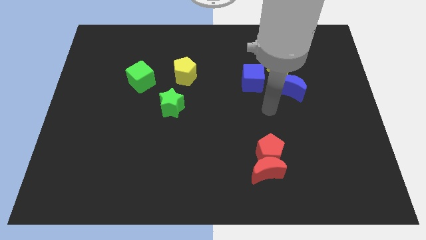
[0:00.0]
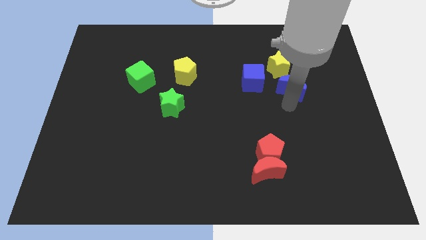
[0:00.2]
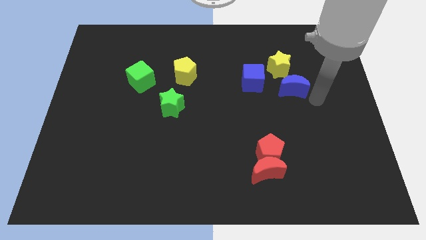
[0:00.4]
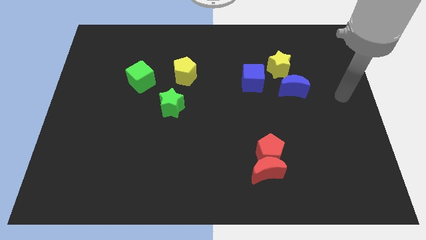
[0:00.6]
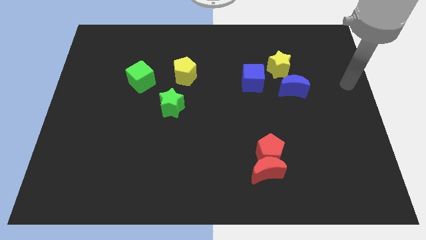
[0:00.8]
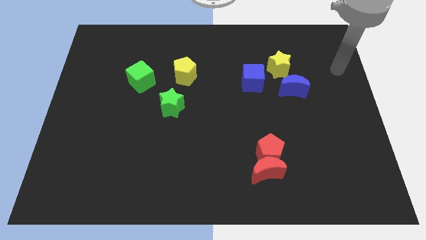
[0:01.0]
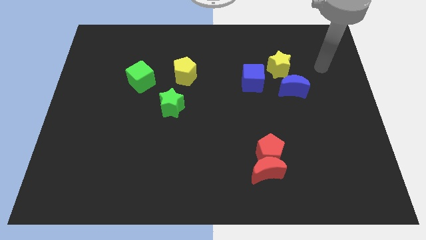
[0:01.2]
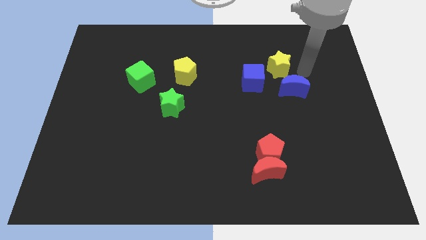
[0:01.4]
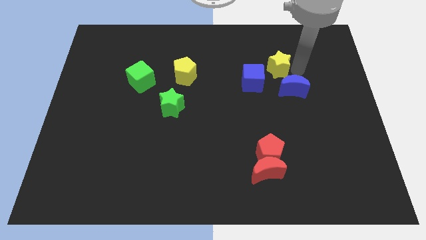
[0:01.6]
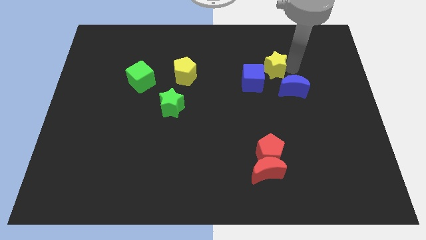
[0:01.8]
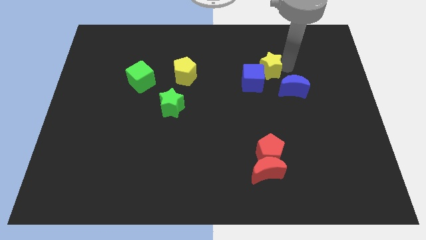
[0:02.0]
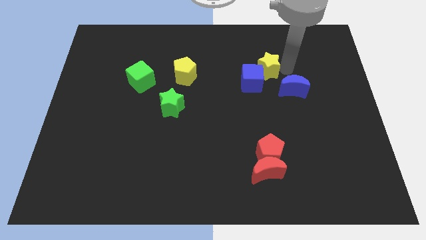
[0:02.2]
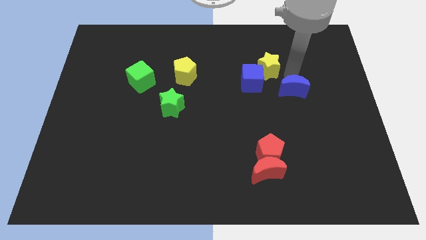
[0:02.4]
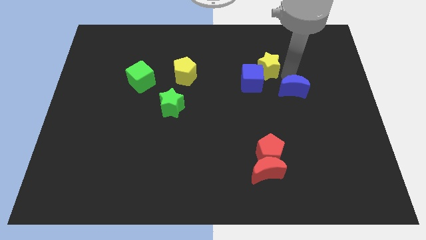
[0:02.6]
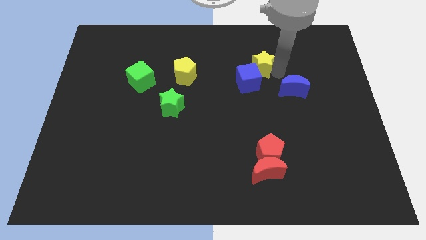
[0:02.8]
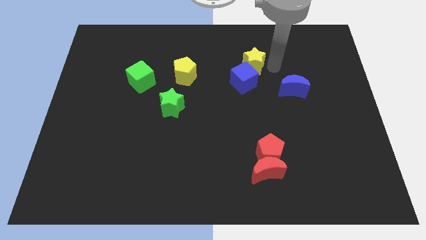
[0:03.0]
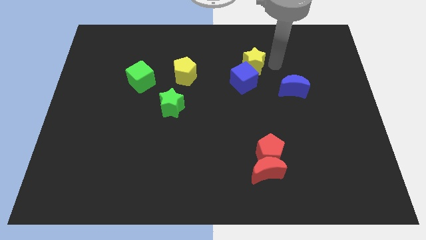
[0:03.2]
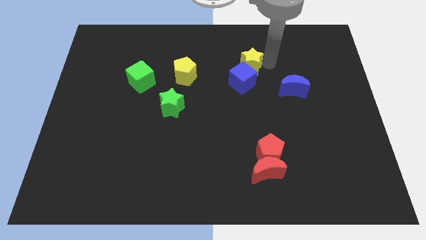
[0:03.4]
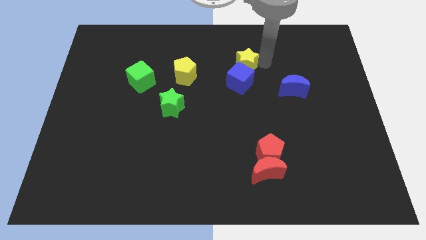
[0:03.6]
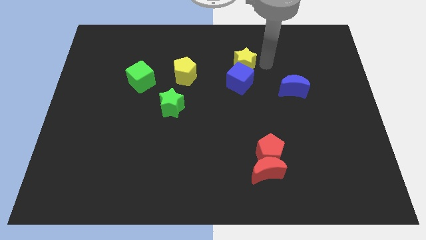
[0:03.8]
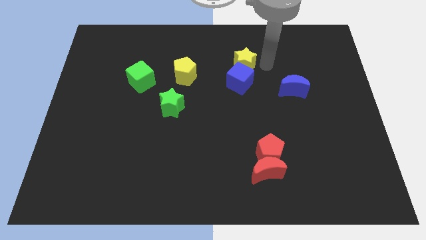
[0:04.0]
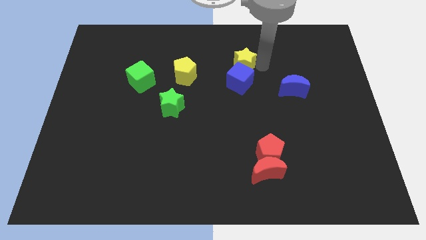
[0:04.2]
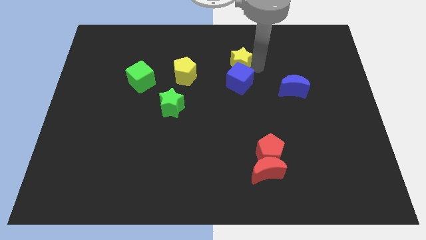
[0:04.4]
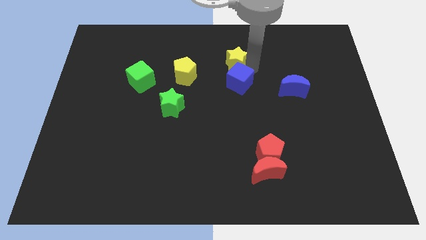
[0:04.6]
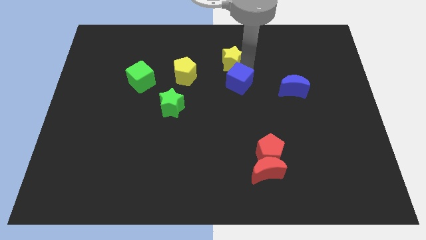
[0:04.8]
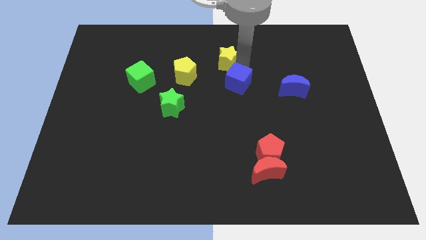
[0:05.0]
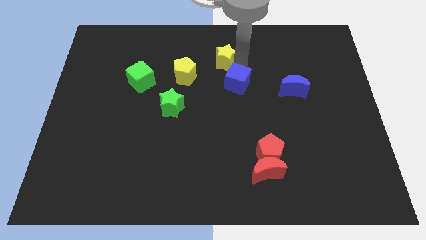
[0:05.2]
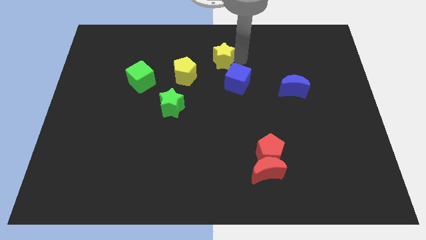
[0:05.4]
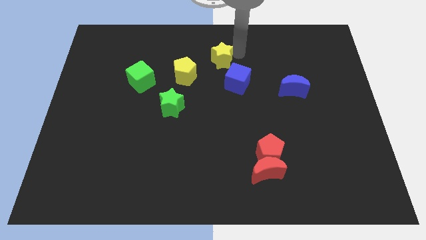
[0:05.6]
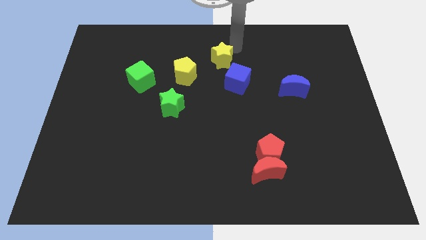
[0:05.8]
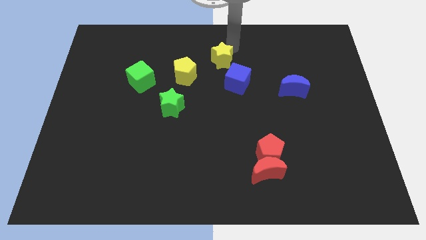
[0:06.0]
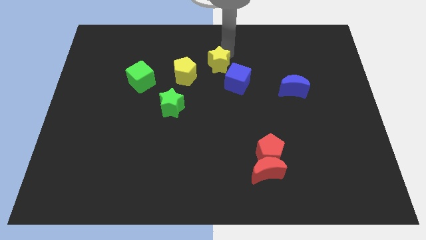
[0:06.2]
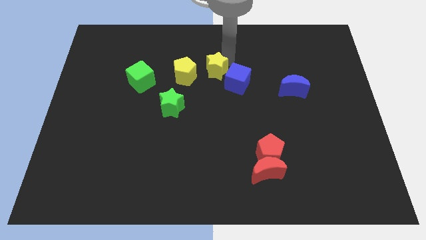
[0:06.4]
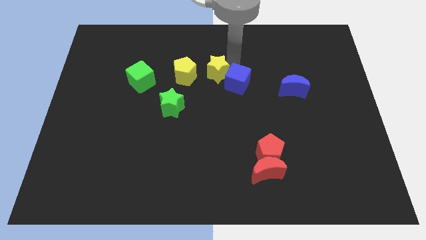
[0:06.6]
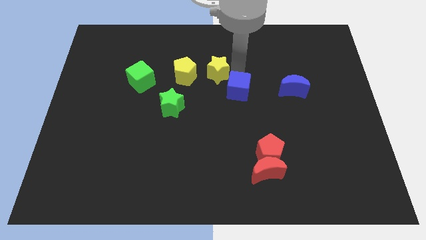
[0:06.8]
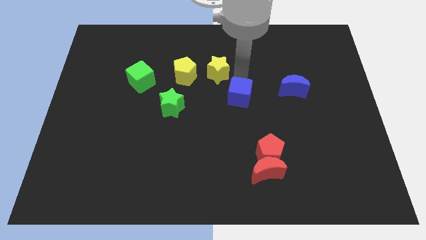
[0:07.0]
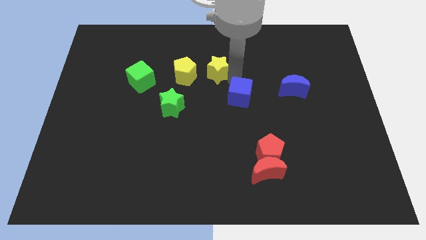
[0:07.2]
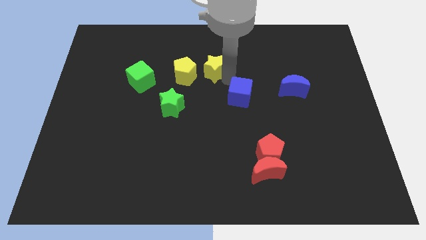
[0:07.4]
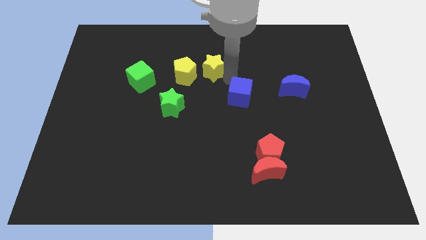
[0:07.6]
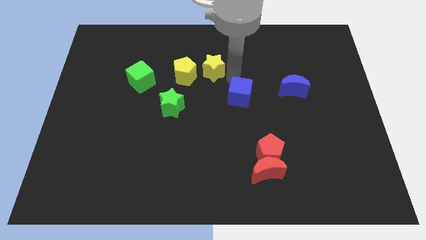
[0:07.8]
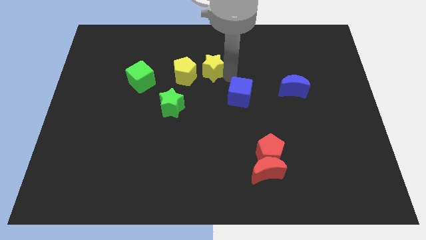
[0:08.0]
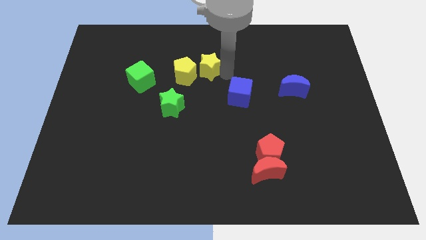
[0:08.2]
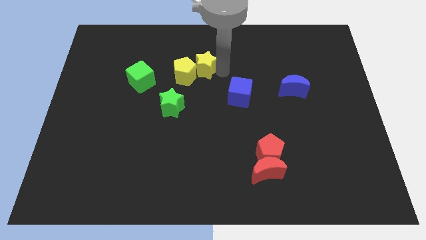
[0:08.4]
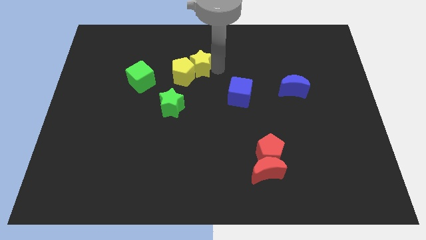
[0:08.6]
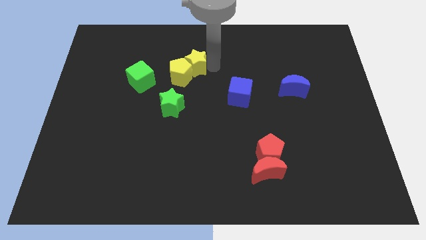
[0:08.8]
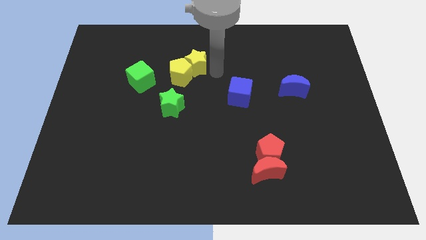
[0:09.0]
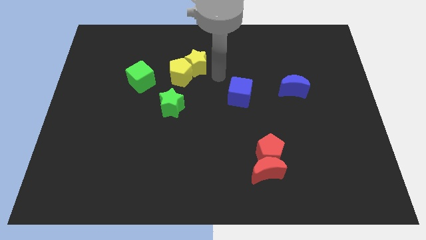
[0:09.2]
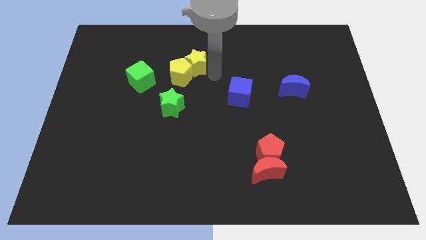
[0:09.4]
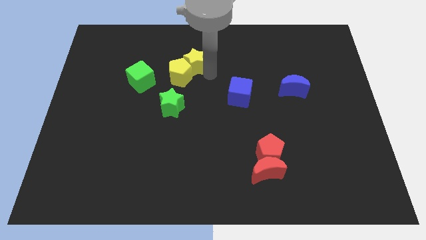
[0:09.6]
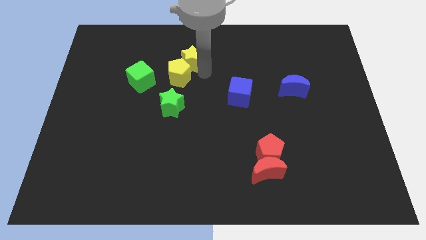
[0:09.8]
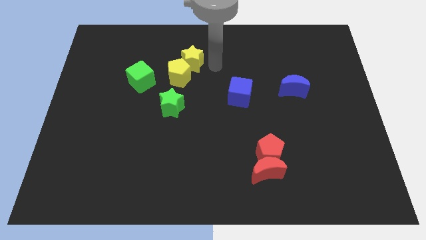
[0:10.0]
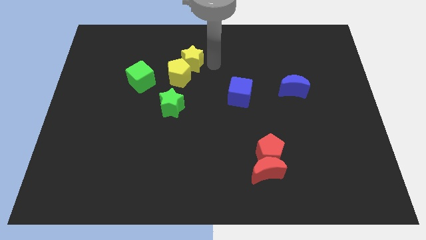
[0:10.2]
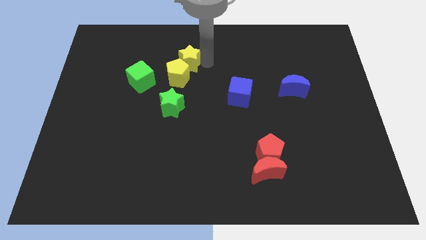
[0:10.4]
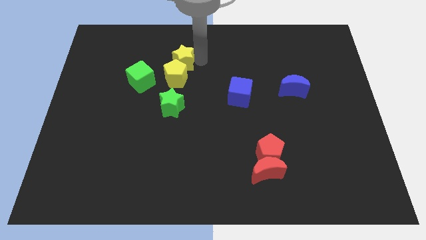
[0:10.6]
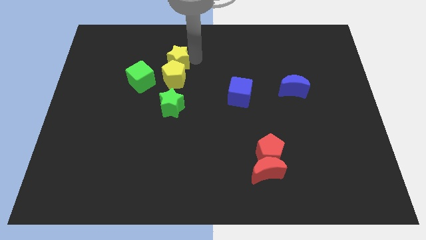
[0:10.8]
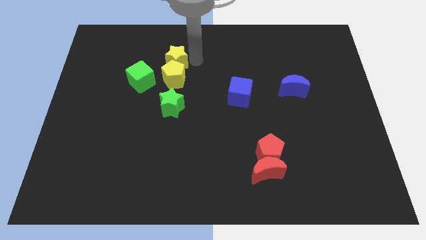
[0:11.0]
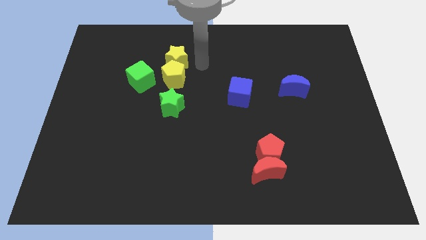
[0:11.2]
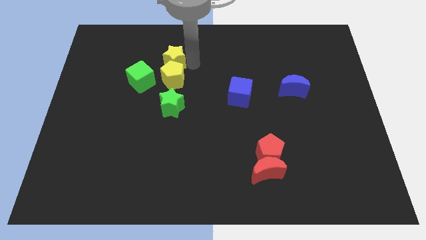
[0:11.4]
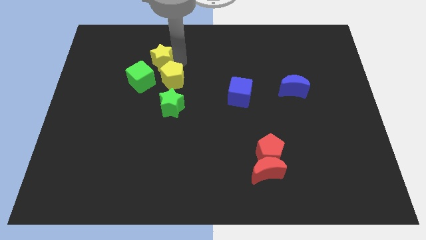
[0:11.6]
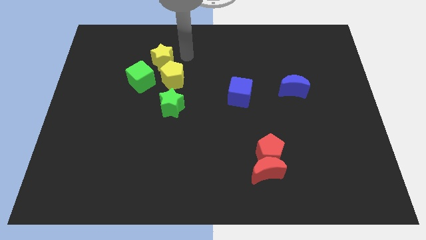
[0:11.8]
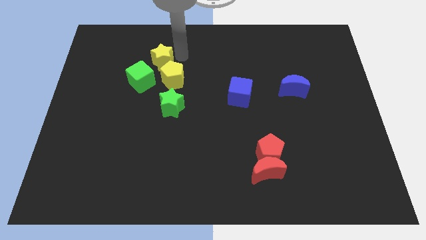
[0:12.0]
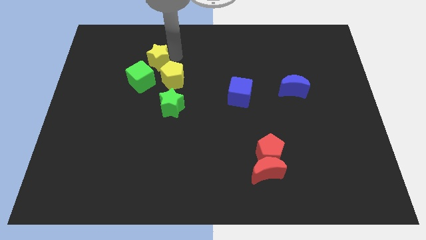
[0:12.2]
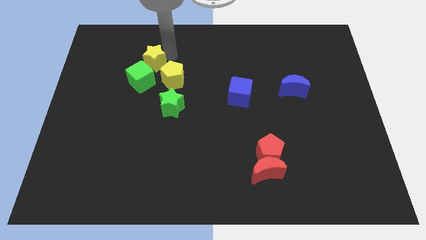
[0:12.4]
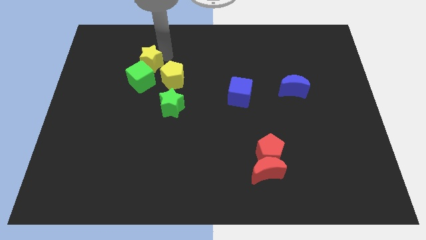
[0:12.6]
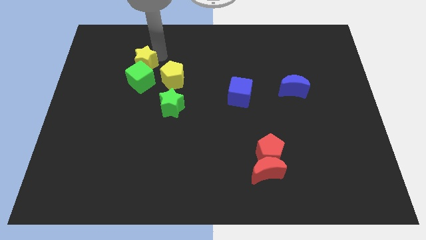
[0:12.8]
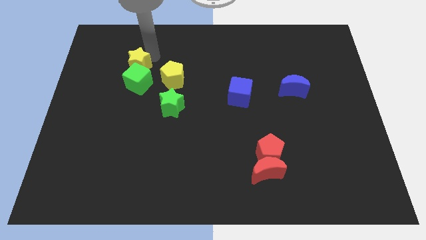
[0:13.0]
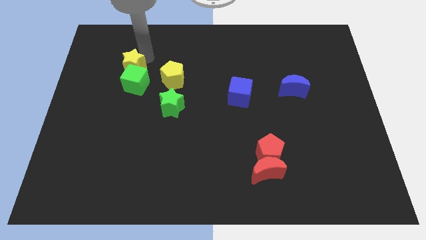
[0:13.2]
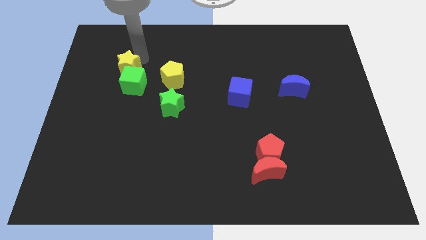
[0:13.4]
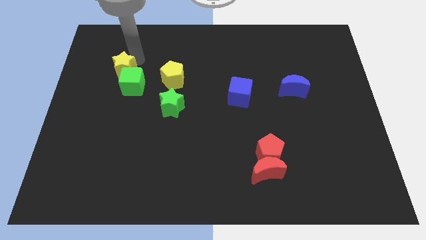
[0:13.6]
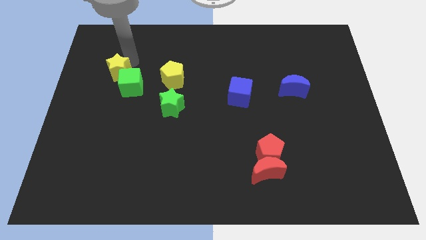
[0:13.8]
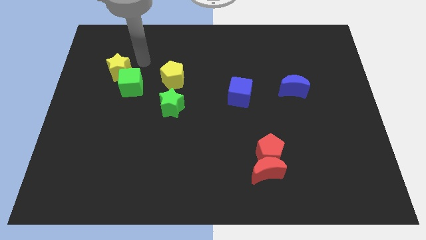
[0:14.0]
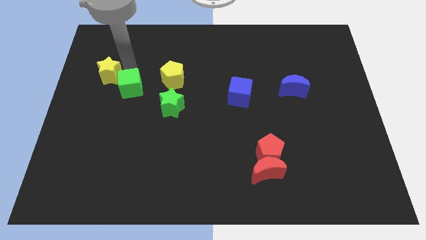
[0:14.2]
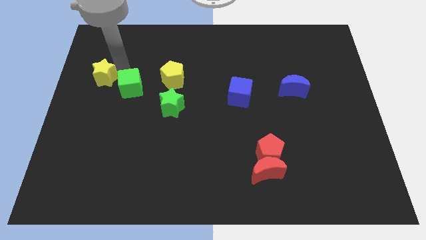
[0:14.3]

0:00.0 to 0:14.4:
put the yellow star to the center left
